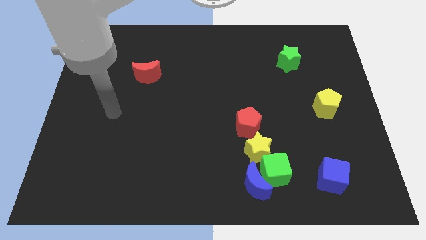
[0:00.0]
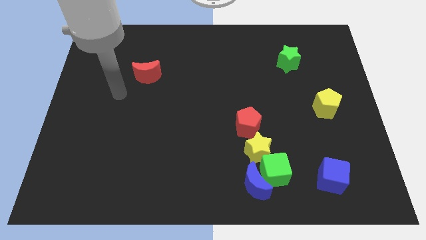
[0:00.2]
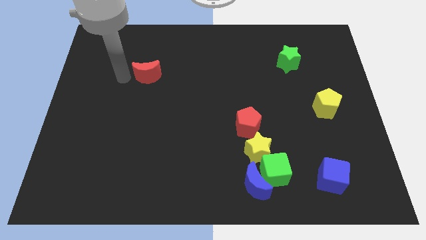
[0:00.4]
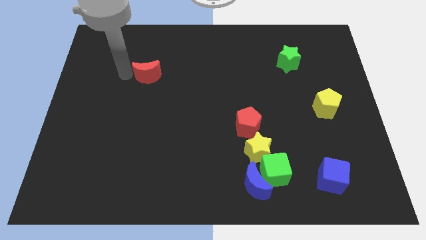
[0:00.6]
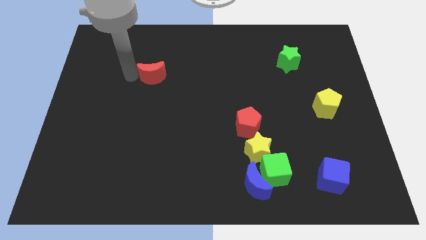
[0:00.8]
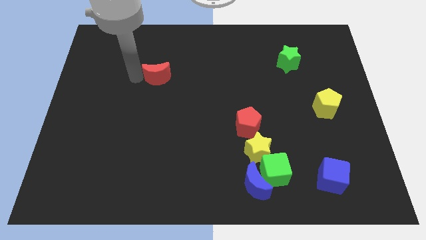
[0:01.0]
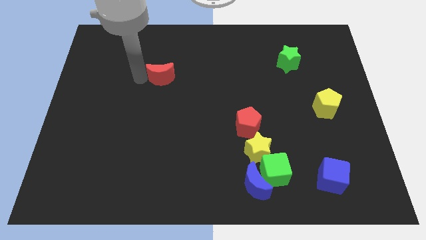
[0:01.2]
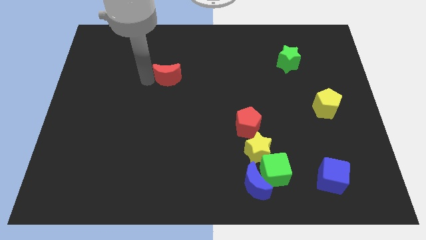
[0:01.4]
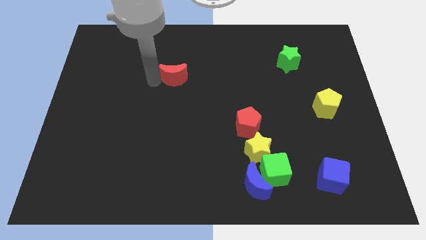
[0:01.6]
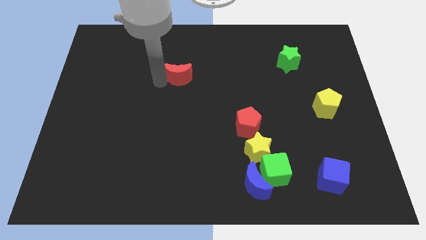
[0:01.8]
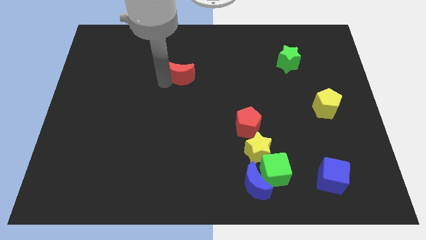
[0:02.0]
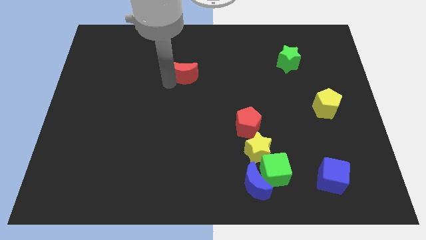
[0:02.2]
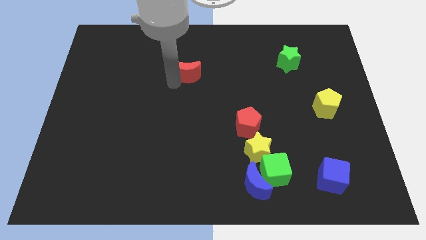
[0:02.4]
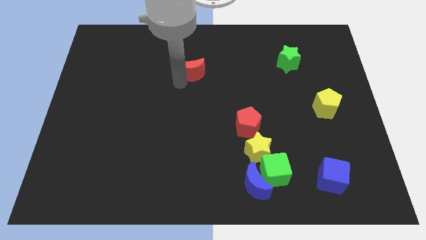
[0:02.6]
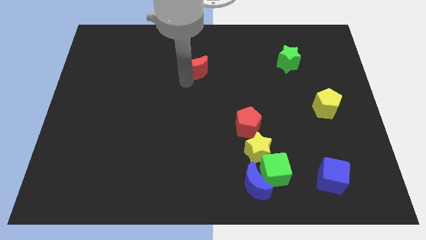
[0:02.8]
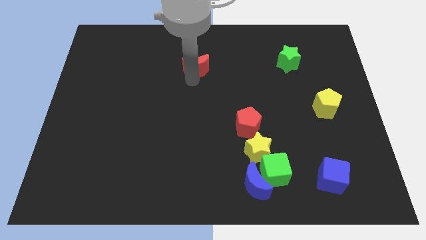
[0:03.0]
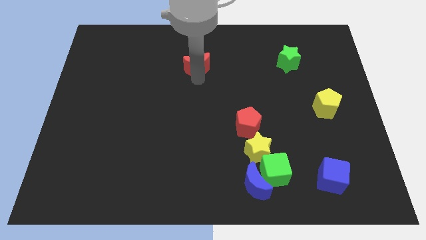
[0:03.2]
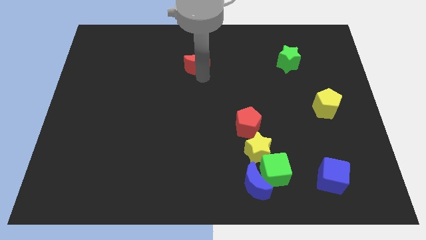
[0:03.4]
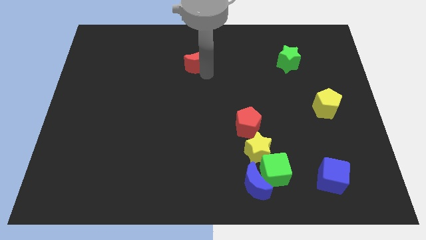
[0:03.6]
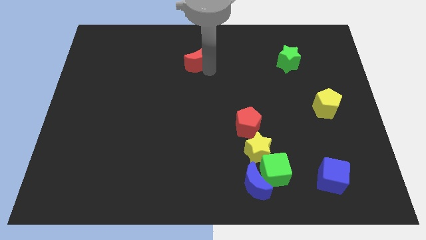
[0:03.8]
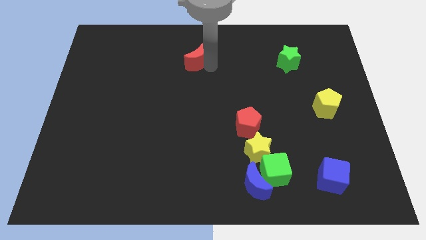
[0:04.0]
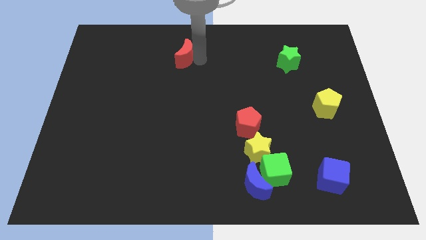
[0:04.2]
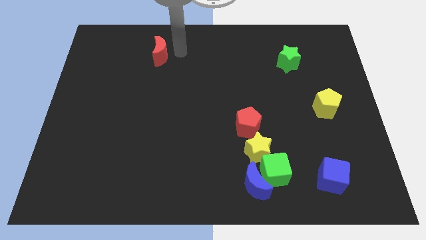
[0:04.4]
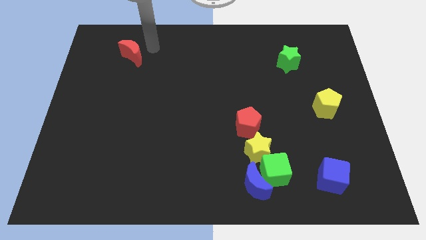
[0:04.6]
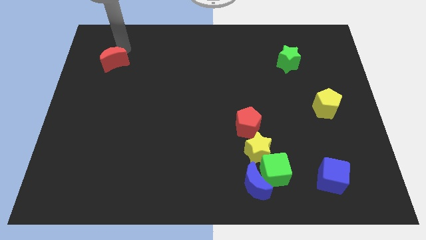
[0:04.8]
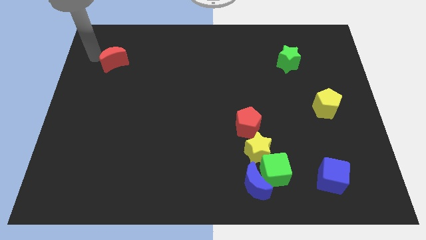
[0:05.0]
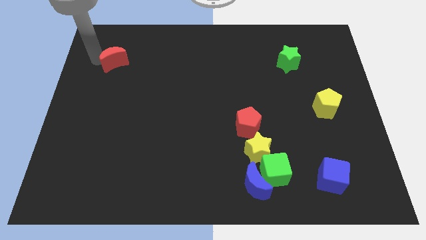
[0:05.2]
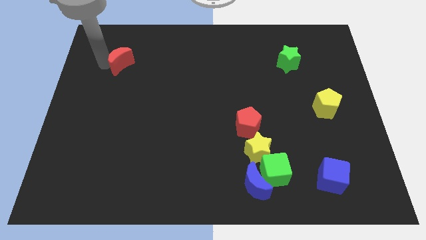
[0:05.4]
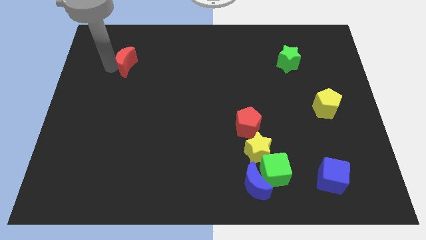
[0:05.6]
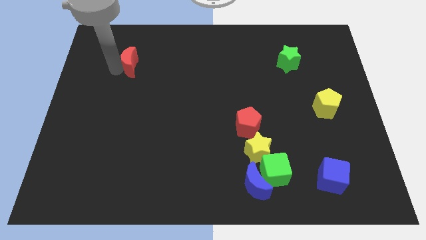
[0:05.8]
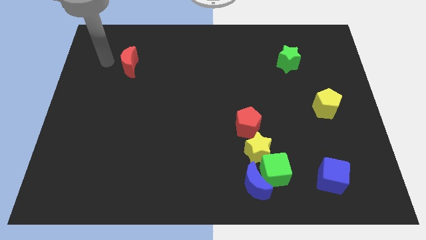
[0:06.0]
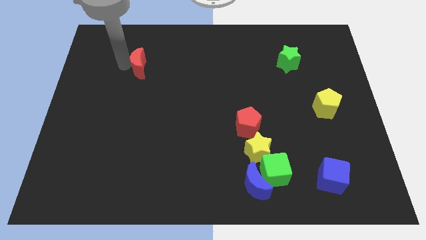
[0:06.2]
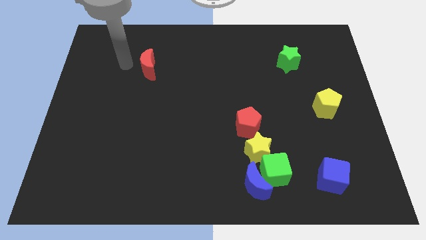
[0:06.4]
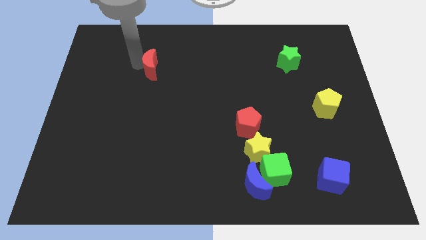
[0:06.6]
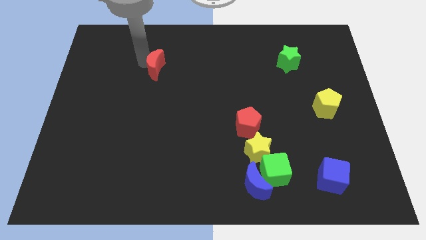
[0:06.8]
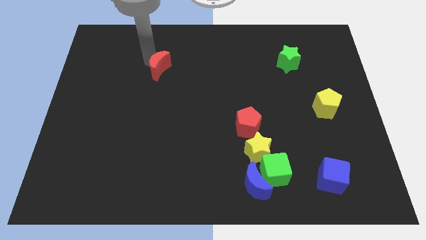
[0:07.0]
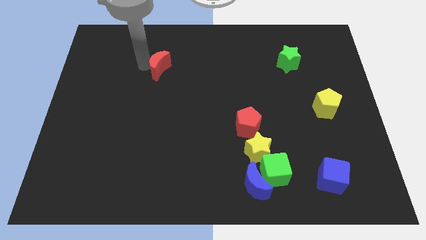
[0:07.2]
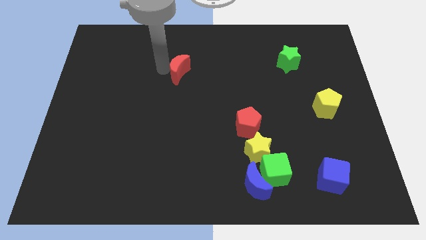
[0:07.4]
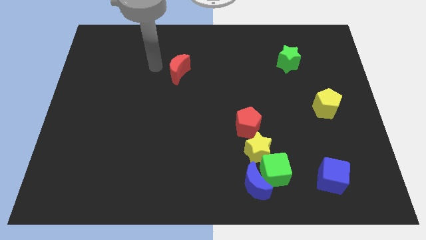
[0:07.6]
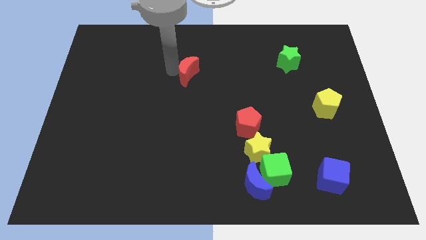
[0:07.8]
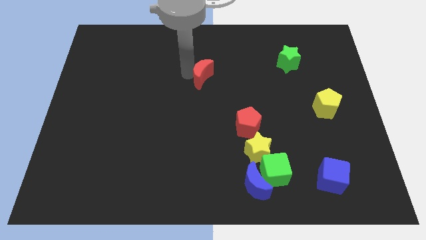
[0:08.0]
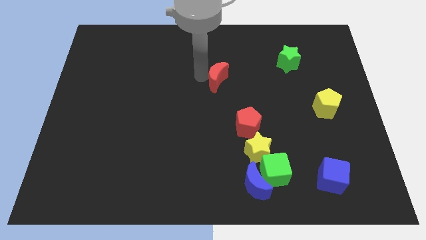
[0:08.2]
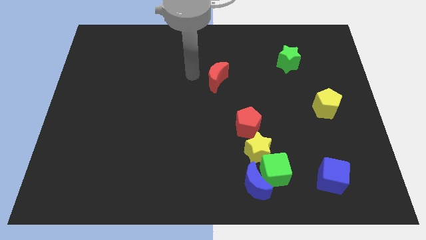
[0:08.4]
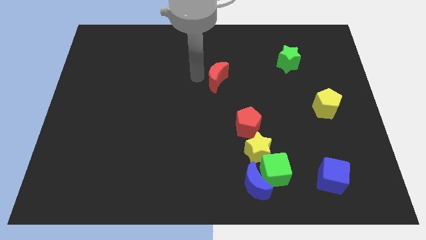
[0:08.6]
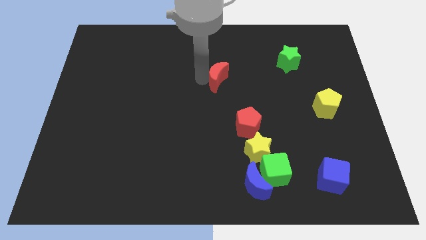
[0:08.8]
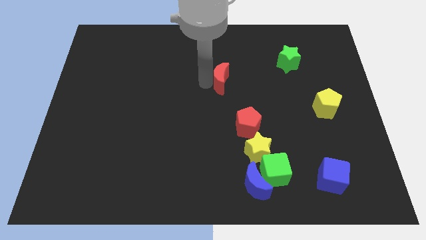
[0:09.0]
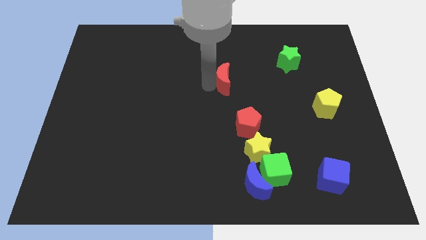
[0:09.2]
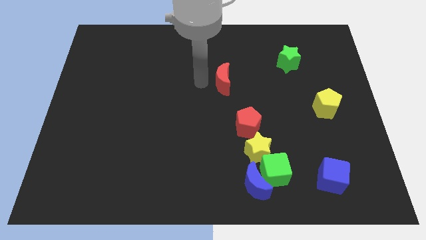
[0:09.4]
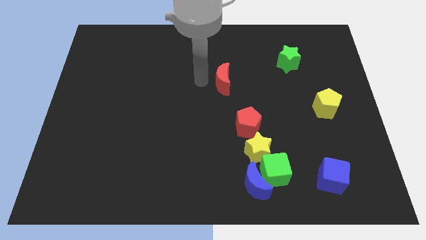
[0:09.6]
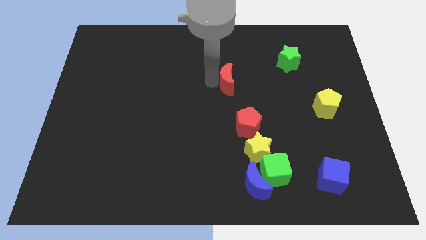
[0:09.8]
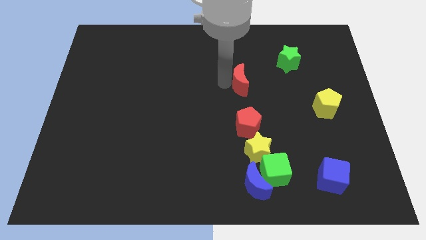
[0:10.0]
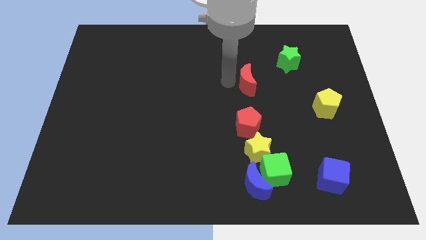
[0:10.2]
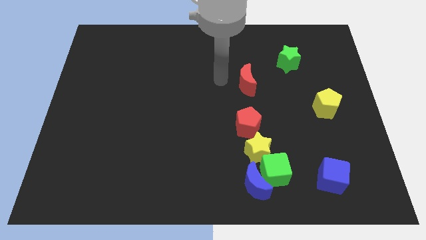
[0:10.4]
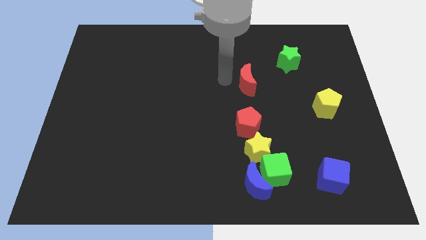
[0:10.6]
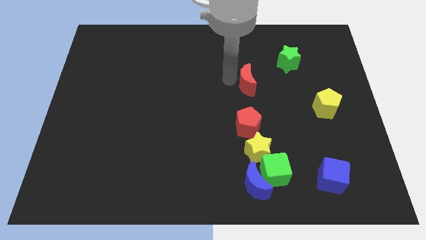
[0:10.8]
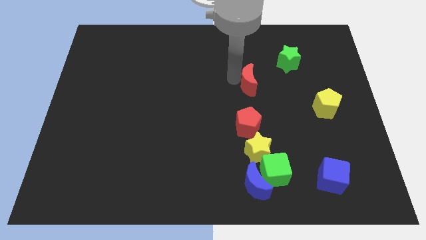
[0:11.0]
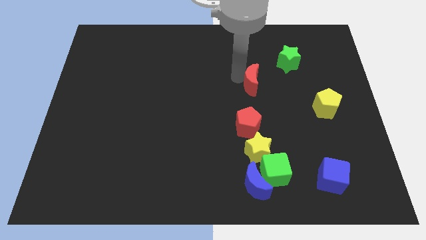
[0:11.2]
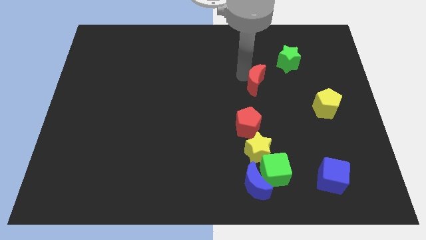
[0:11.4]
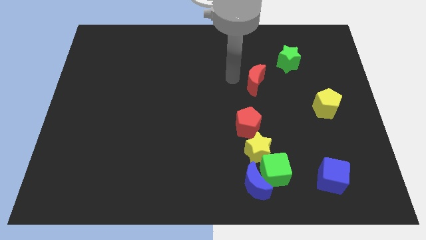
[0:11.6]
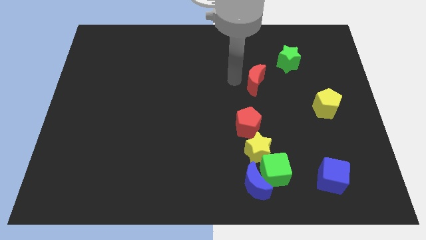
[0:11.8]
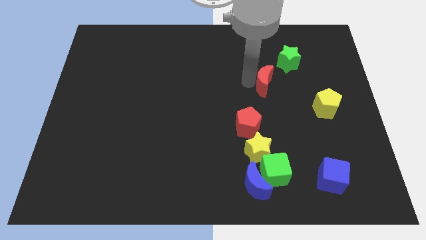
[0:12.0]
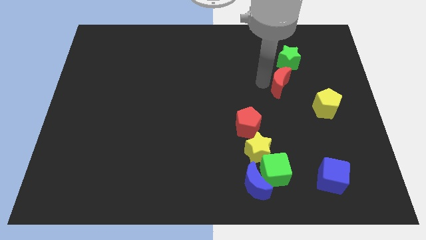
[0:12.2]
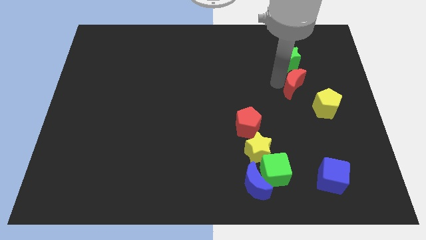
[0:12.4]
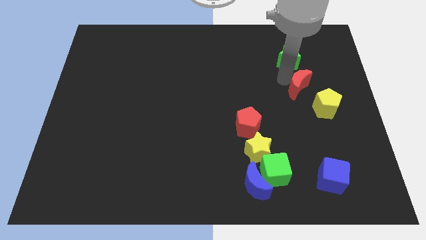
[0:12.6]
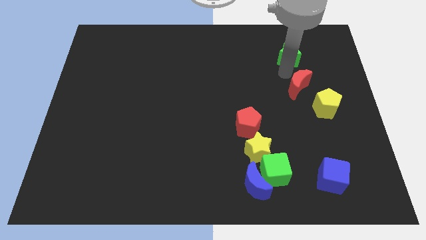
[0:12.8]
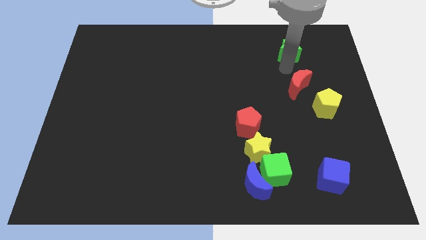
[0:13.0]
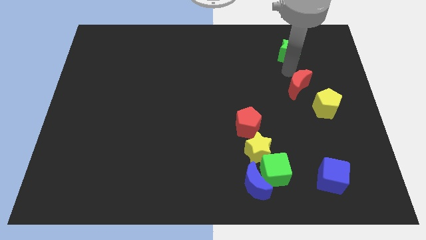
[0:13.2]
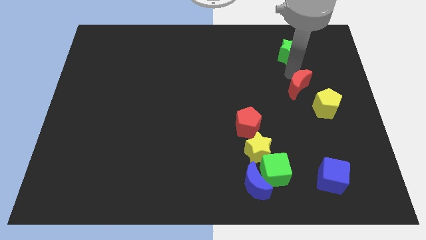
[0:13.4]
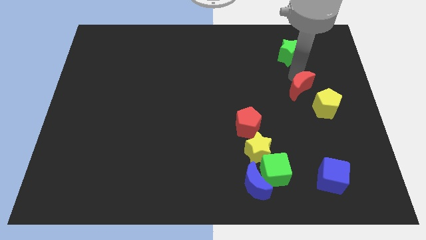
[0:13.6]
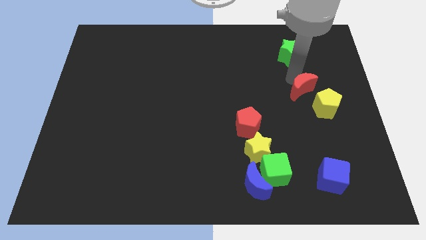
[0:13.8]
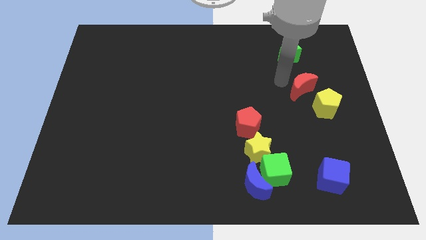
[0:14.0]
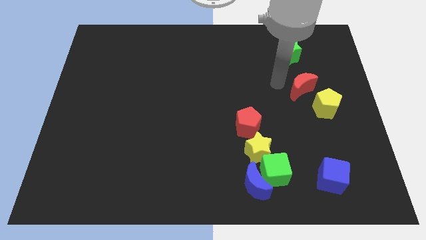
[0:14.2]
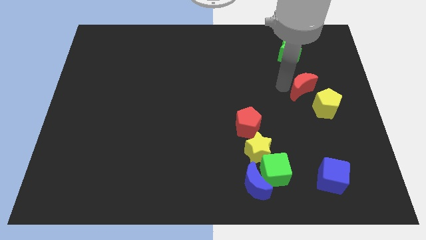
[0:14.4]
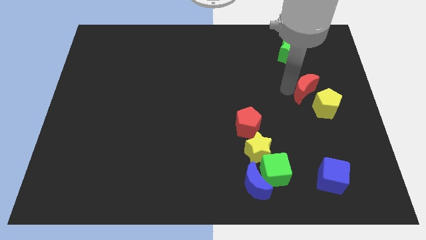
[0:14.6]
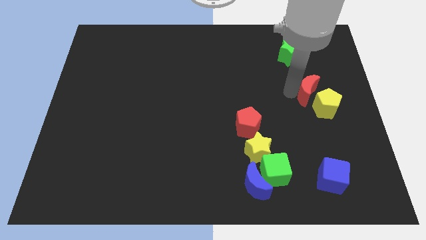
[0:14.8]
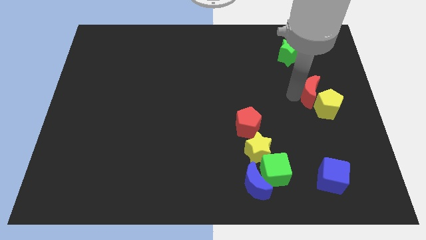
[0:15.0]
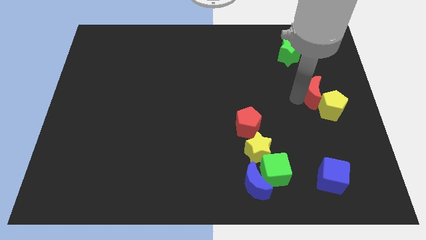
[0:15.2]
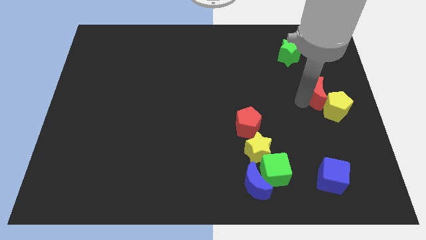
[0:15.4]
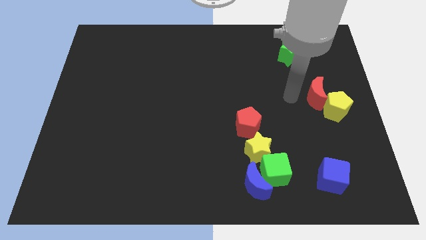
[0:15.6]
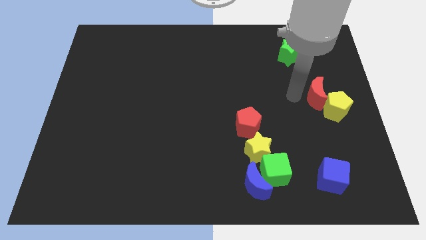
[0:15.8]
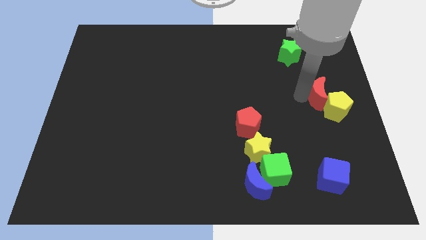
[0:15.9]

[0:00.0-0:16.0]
push the red moon to the right side

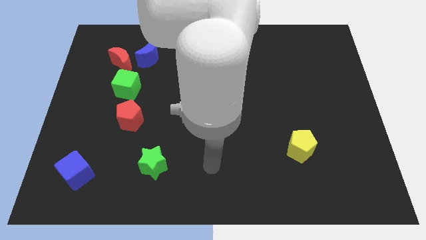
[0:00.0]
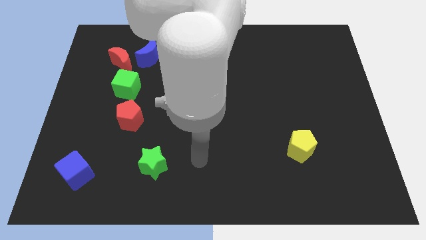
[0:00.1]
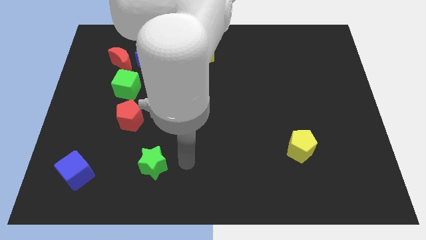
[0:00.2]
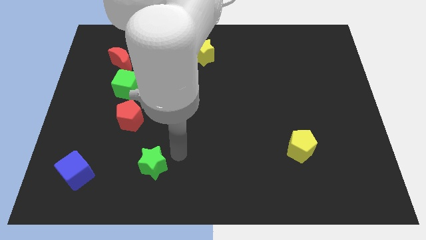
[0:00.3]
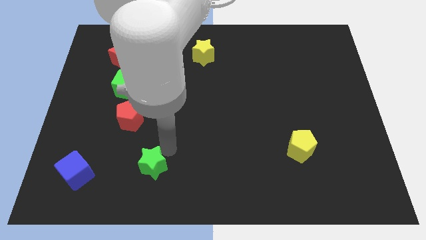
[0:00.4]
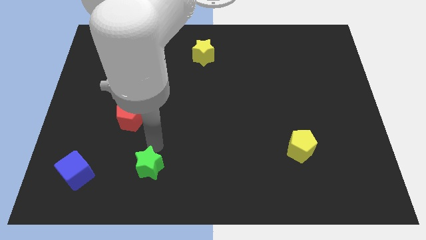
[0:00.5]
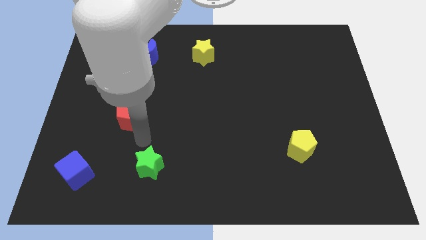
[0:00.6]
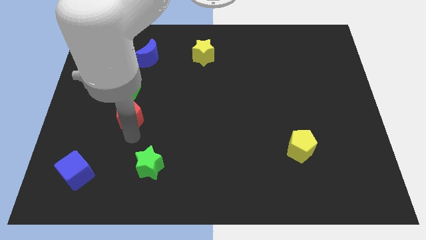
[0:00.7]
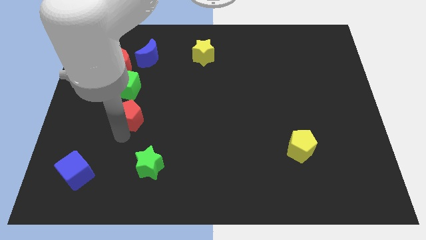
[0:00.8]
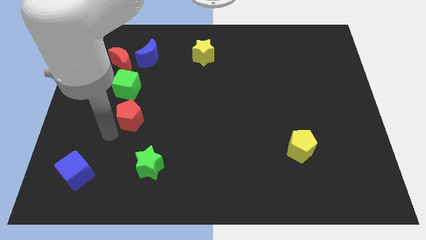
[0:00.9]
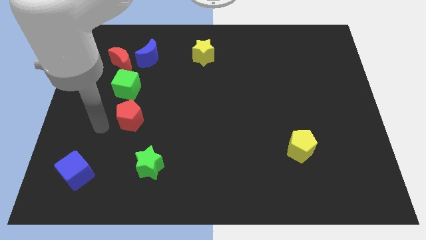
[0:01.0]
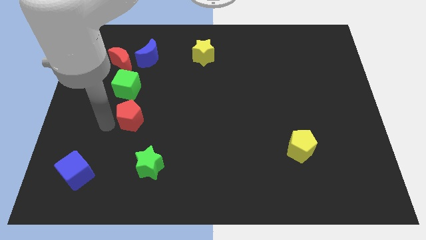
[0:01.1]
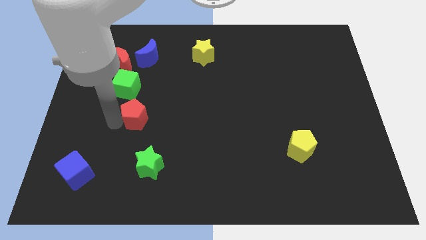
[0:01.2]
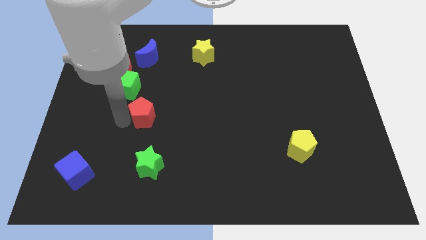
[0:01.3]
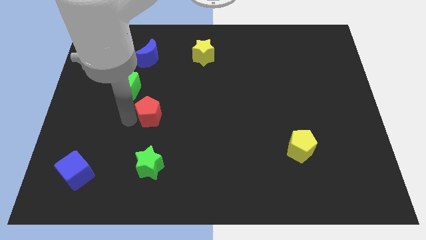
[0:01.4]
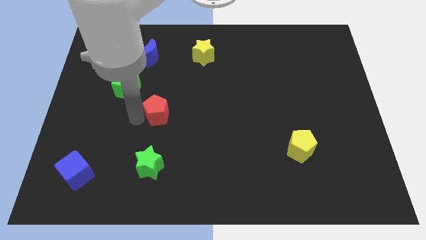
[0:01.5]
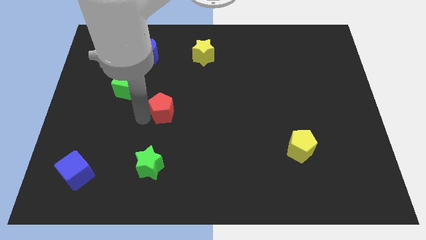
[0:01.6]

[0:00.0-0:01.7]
slide the red pentagon to the middle
